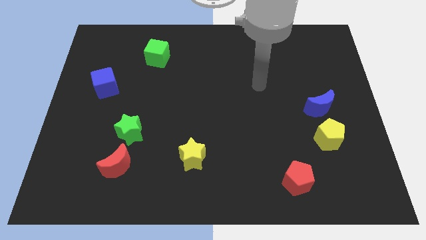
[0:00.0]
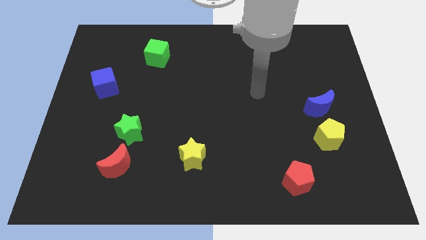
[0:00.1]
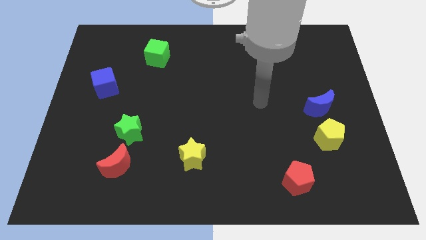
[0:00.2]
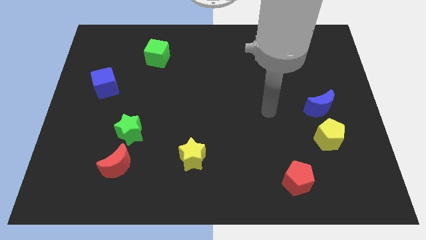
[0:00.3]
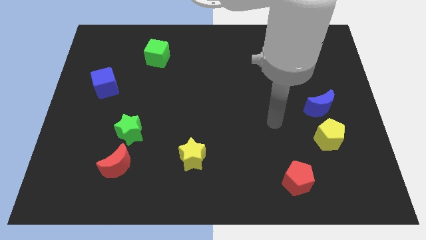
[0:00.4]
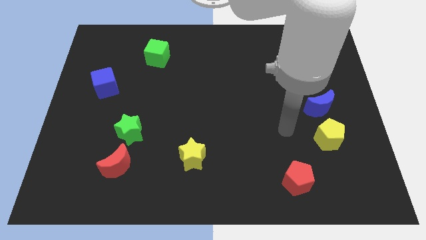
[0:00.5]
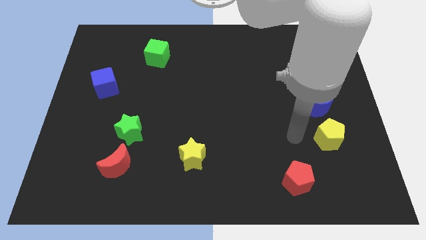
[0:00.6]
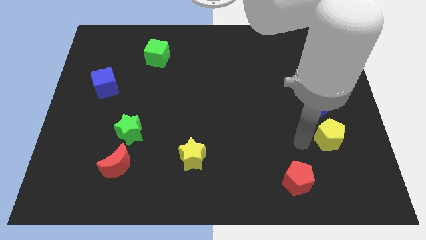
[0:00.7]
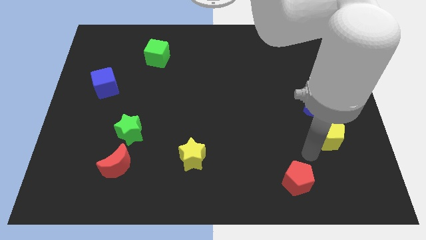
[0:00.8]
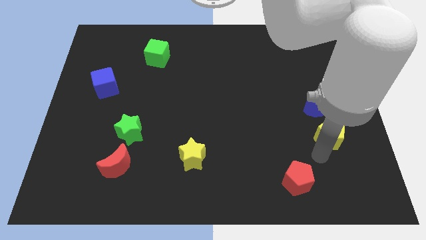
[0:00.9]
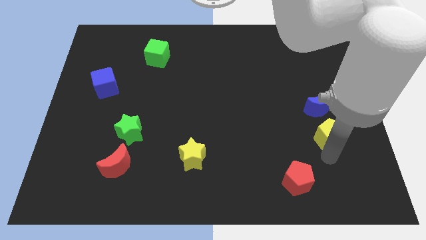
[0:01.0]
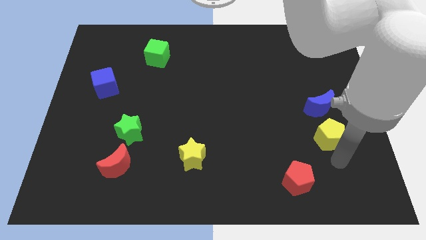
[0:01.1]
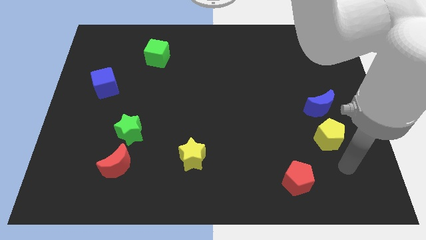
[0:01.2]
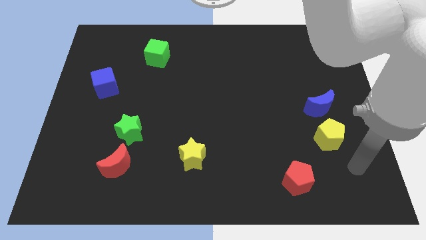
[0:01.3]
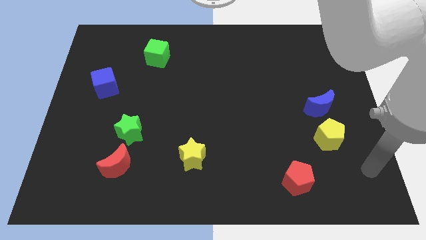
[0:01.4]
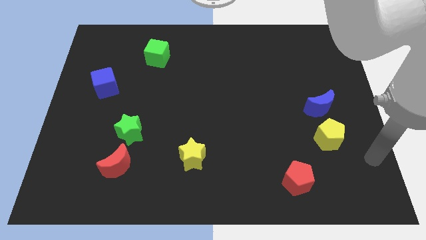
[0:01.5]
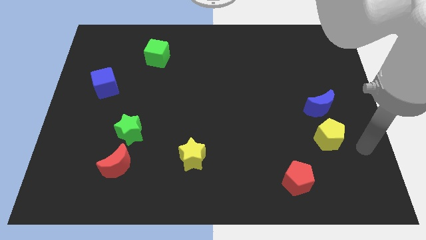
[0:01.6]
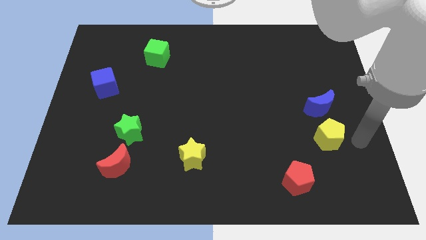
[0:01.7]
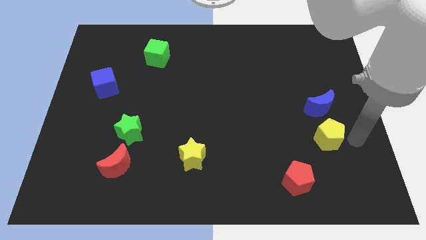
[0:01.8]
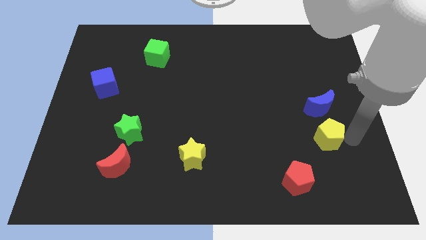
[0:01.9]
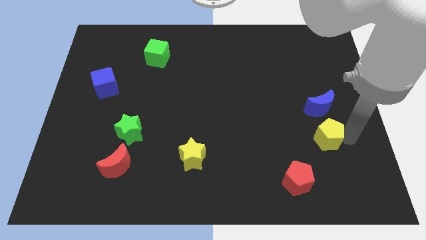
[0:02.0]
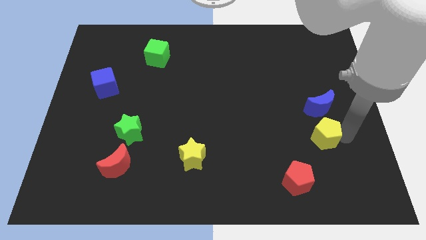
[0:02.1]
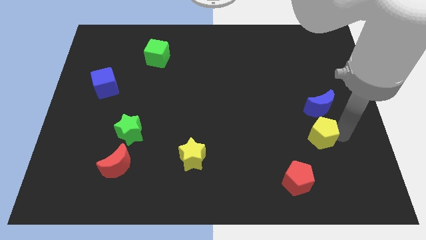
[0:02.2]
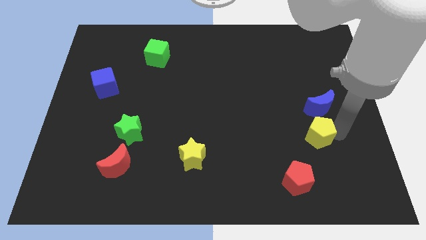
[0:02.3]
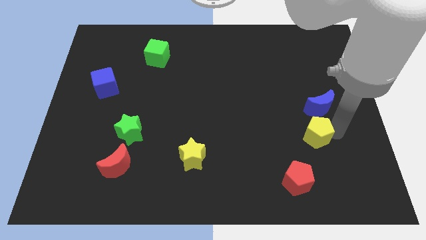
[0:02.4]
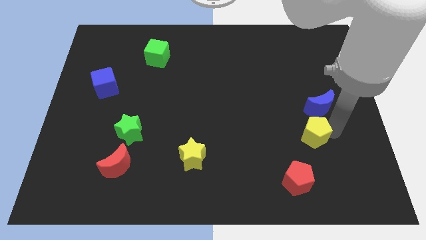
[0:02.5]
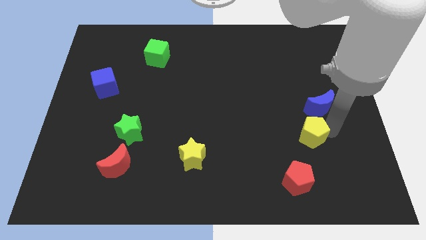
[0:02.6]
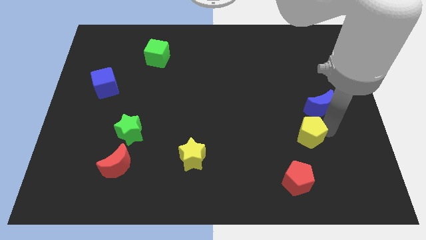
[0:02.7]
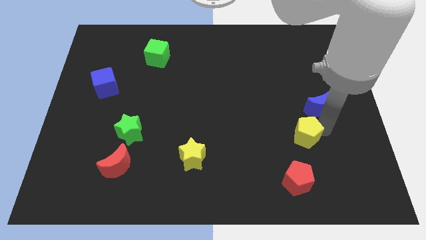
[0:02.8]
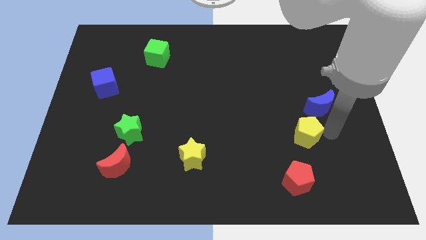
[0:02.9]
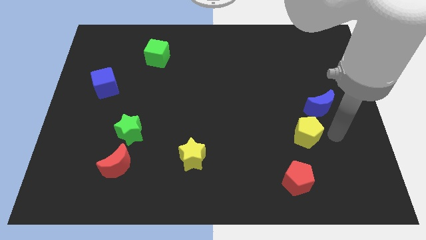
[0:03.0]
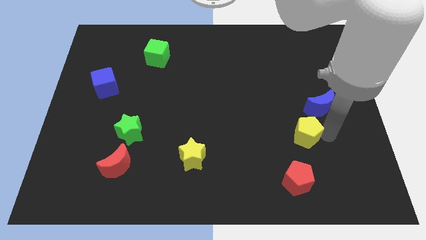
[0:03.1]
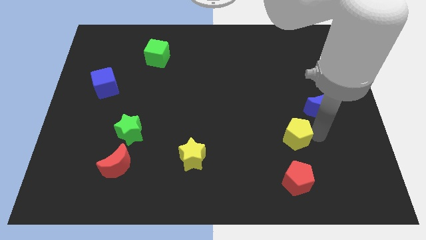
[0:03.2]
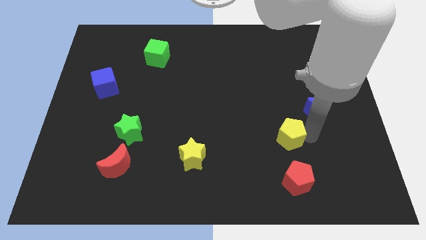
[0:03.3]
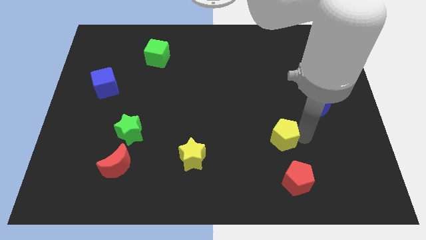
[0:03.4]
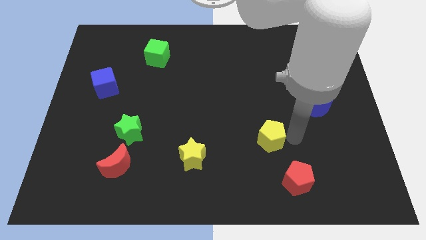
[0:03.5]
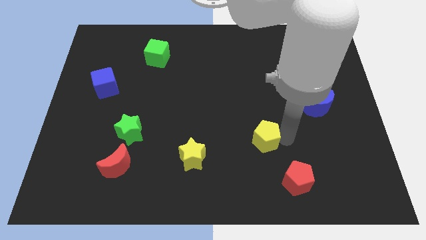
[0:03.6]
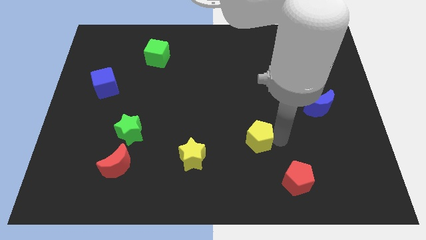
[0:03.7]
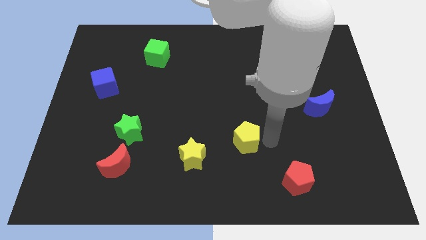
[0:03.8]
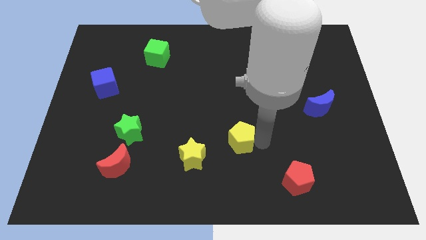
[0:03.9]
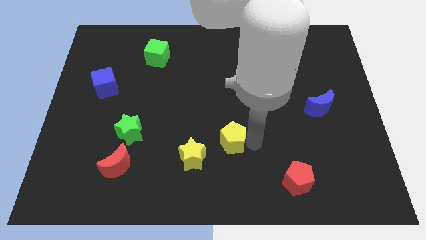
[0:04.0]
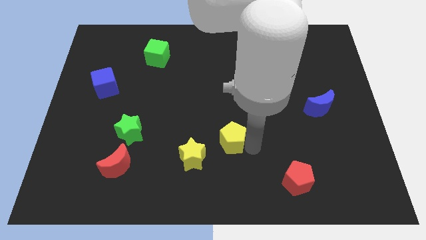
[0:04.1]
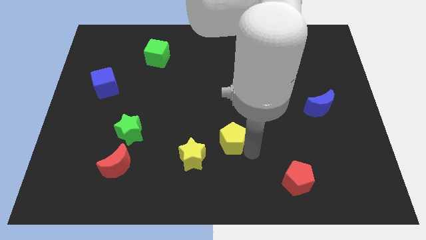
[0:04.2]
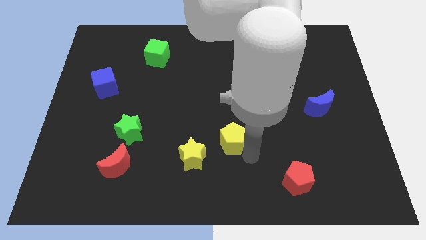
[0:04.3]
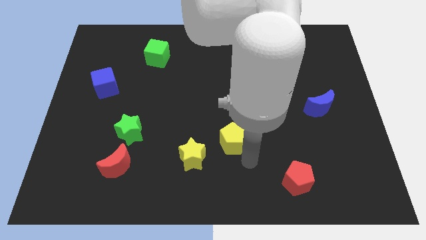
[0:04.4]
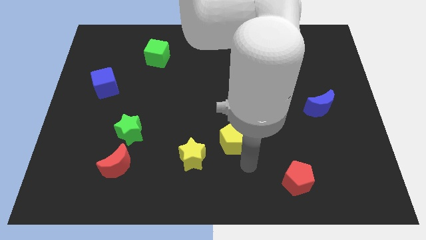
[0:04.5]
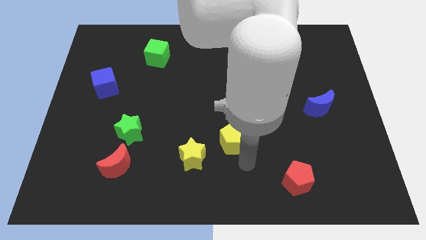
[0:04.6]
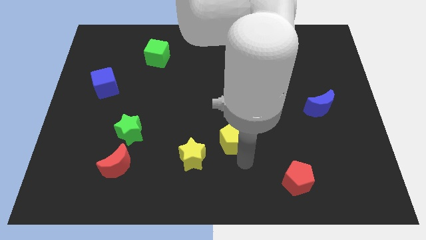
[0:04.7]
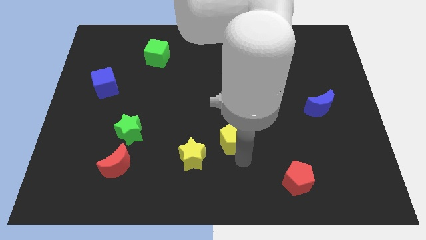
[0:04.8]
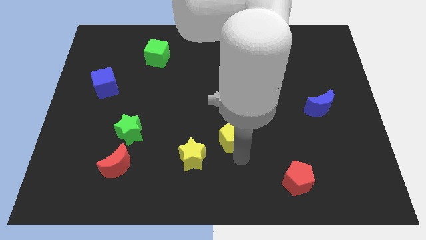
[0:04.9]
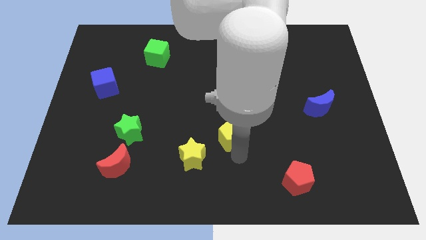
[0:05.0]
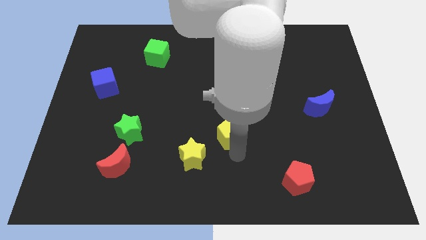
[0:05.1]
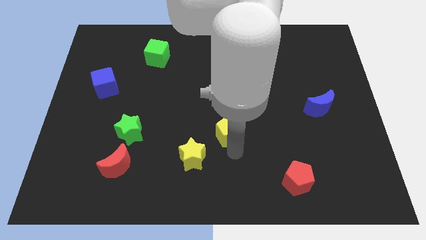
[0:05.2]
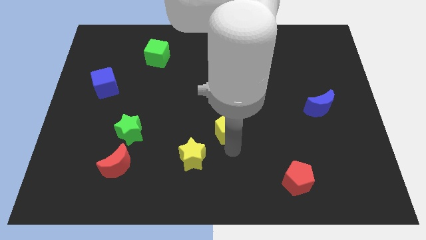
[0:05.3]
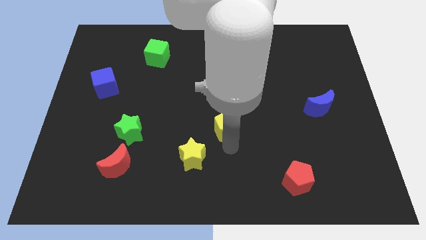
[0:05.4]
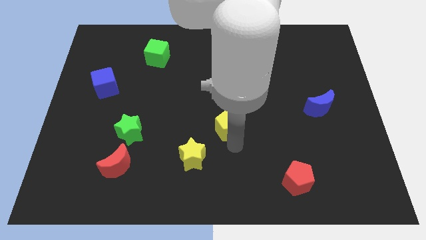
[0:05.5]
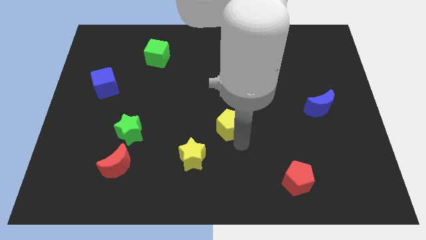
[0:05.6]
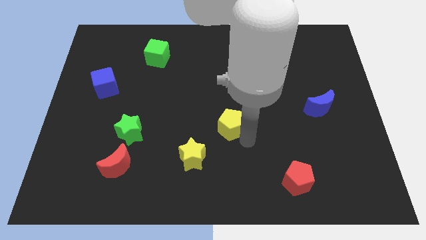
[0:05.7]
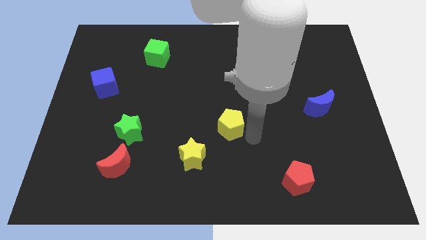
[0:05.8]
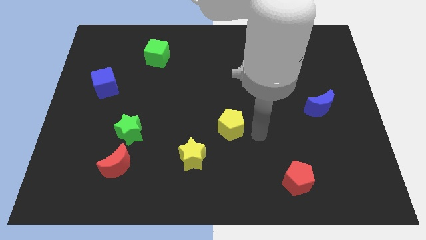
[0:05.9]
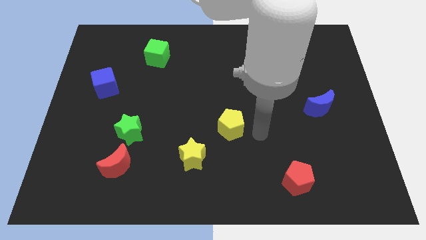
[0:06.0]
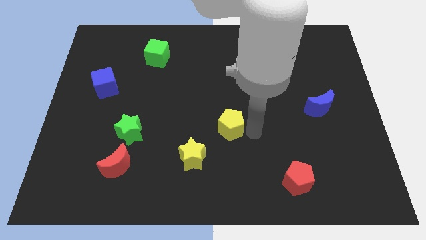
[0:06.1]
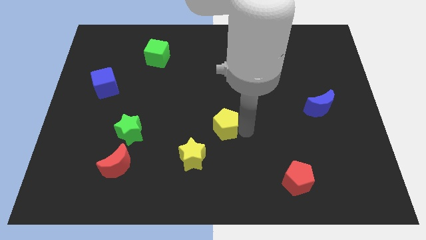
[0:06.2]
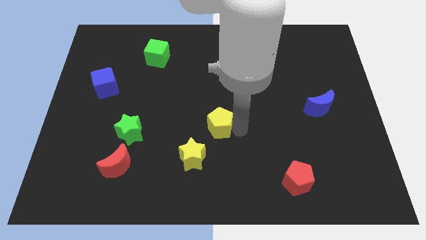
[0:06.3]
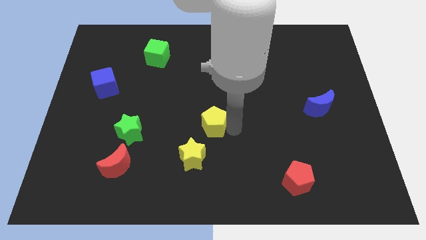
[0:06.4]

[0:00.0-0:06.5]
move the yellow pentagon to the top side of the yellow star
